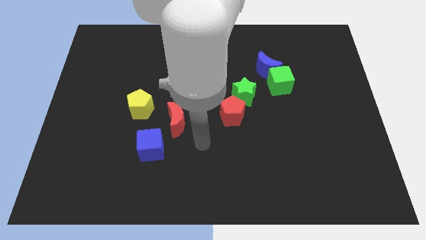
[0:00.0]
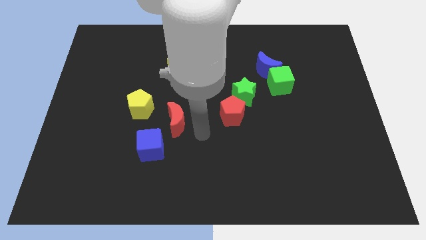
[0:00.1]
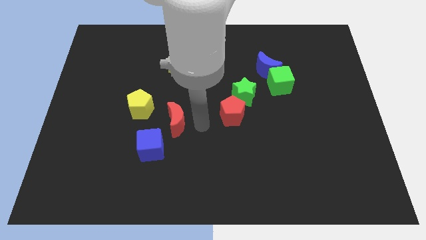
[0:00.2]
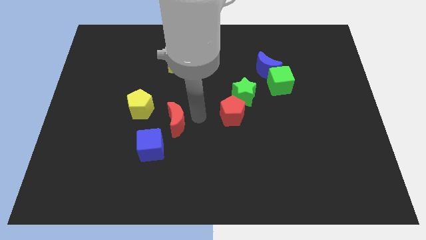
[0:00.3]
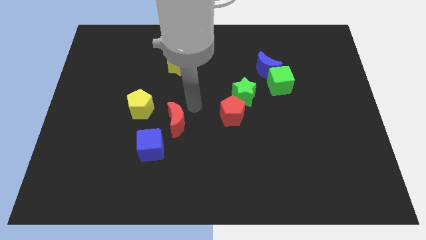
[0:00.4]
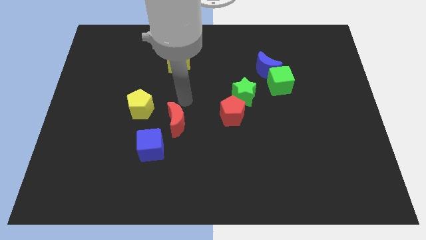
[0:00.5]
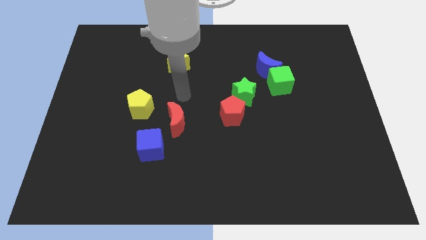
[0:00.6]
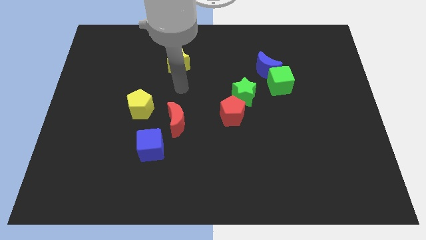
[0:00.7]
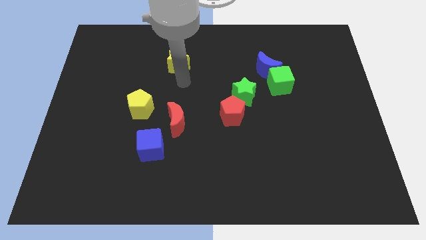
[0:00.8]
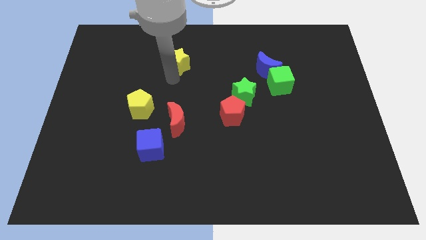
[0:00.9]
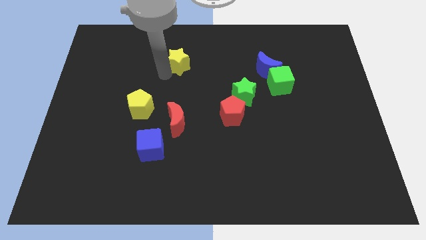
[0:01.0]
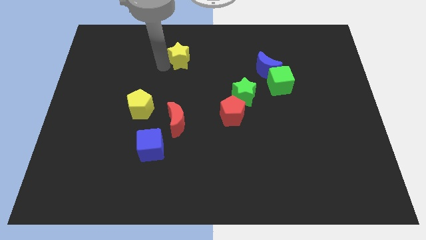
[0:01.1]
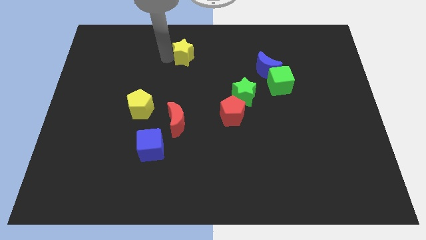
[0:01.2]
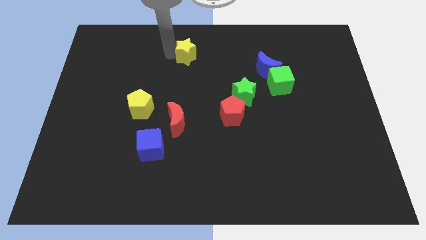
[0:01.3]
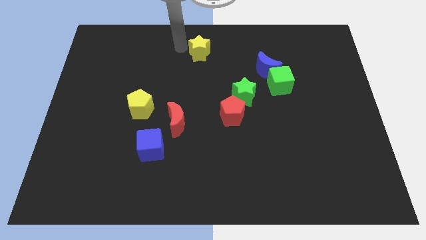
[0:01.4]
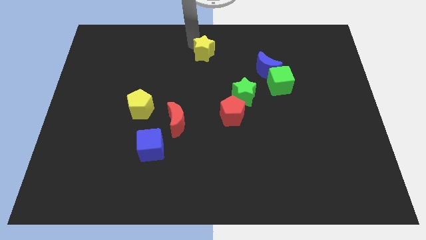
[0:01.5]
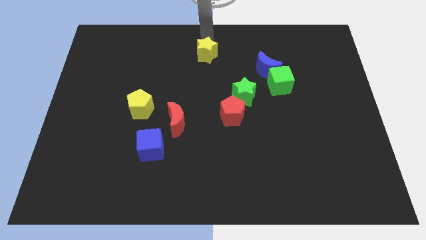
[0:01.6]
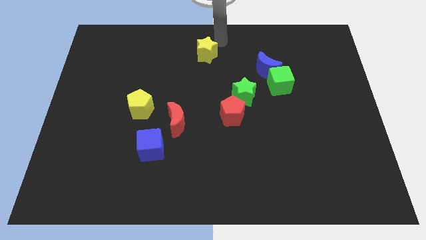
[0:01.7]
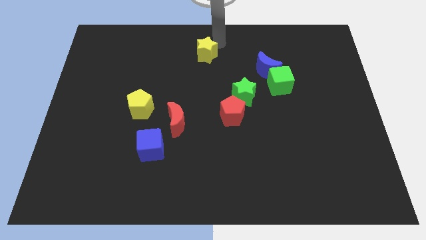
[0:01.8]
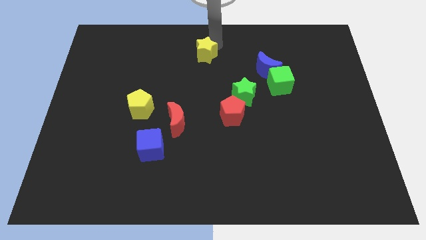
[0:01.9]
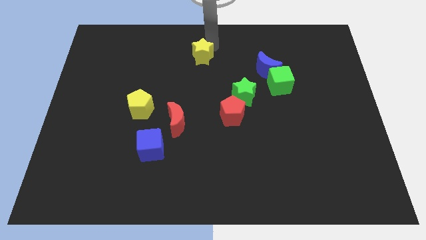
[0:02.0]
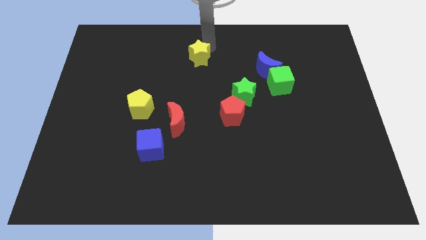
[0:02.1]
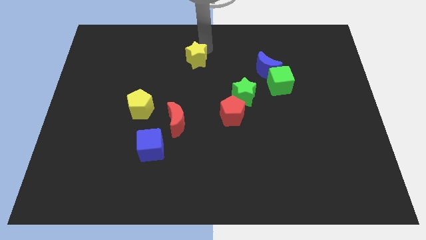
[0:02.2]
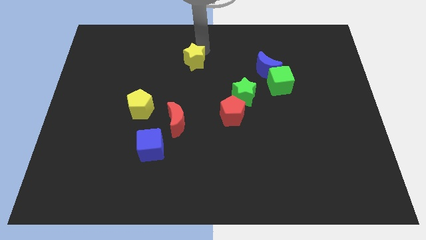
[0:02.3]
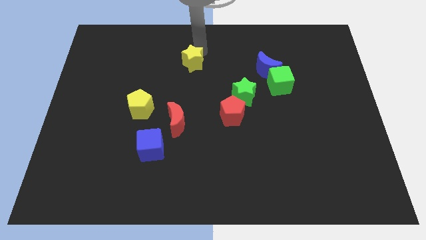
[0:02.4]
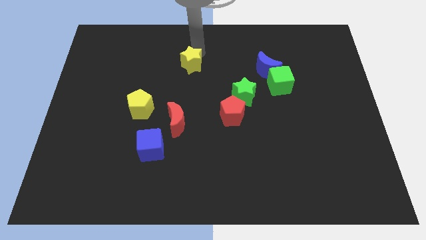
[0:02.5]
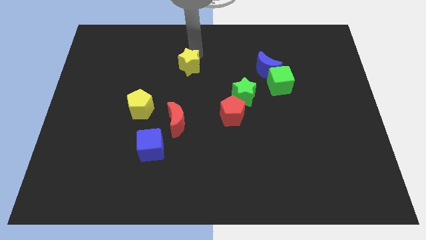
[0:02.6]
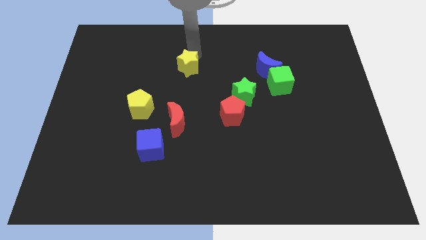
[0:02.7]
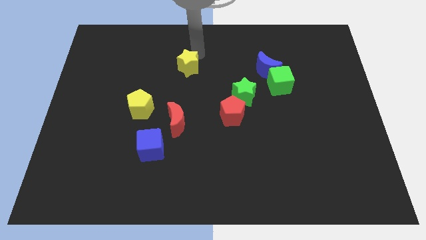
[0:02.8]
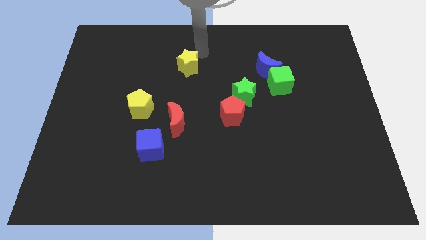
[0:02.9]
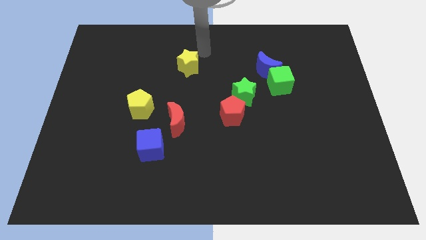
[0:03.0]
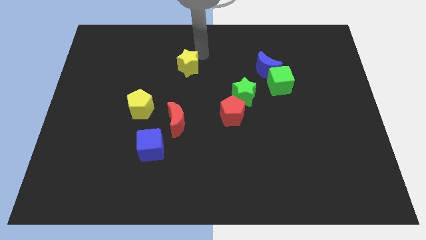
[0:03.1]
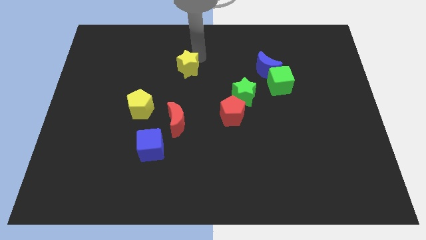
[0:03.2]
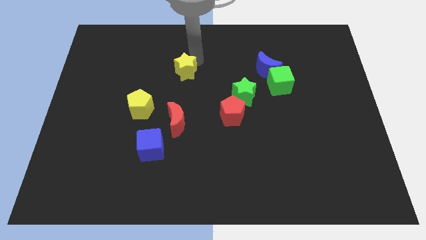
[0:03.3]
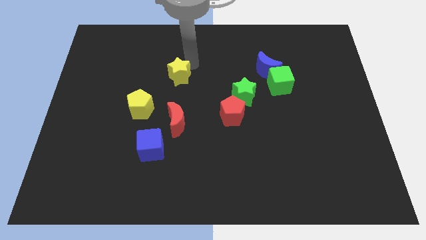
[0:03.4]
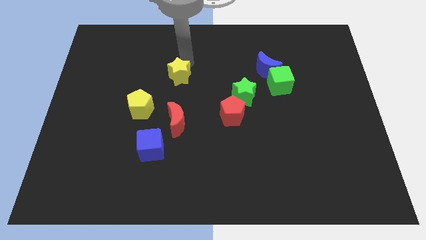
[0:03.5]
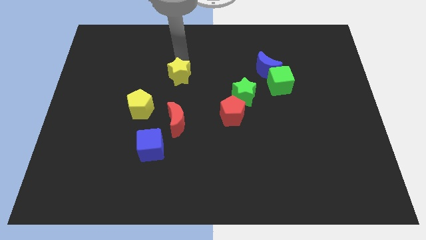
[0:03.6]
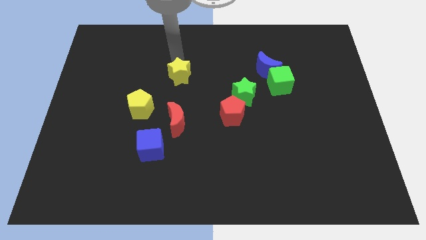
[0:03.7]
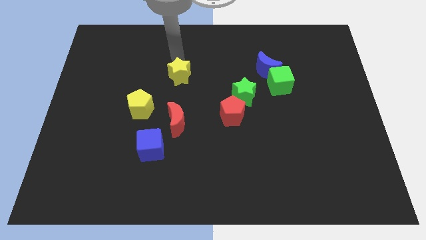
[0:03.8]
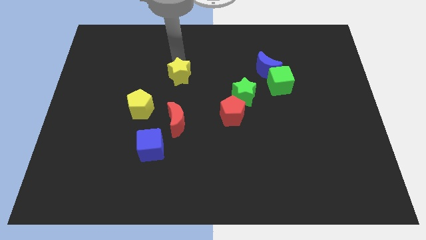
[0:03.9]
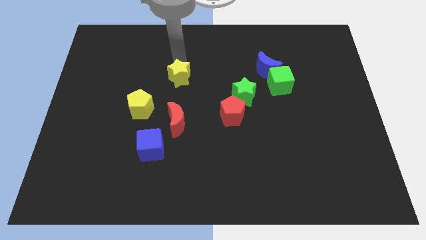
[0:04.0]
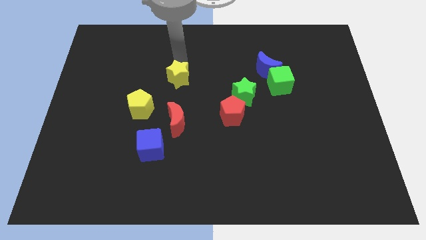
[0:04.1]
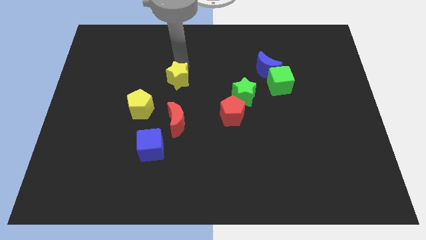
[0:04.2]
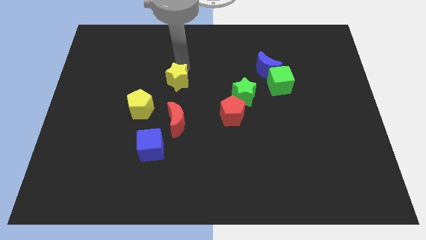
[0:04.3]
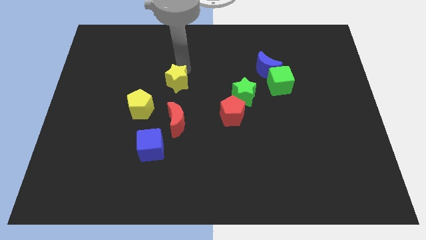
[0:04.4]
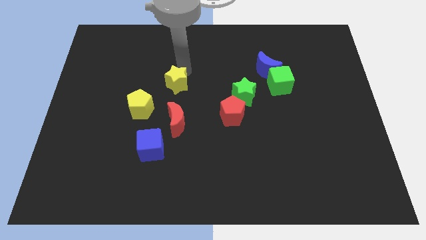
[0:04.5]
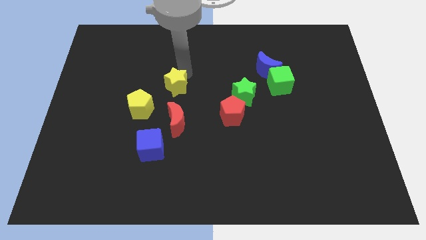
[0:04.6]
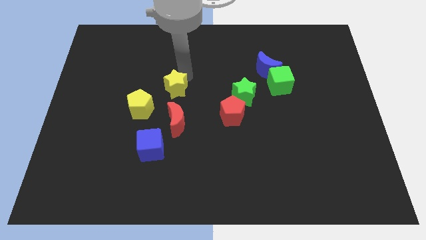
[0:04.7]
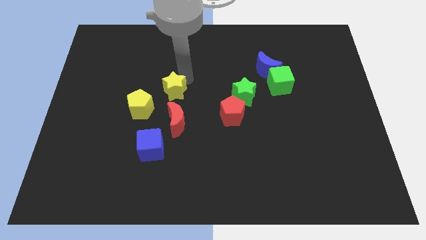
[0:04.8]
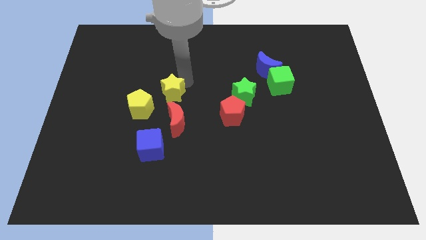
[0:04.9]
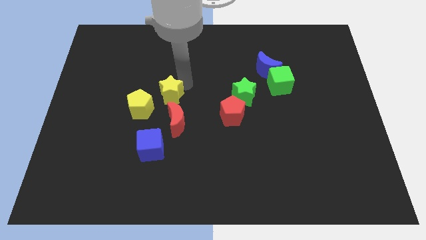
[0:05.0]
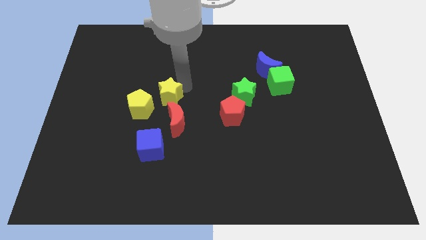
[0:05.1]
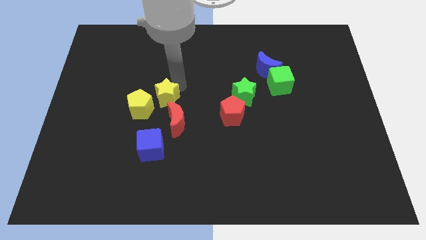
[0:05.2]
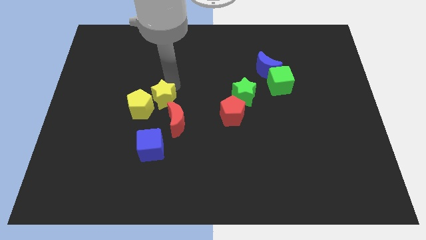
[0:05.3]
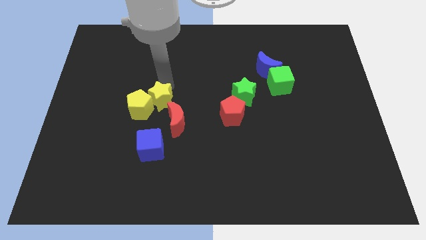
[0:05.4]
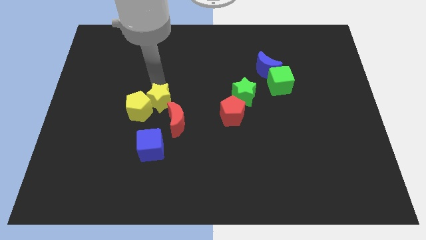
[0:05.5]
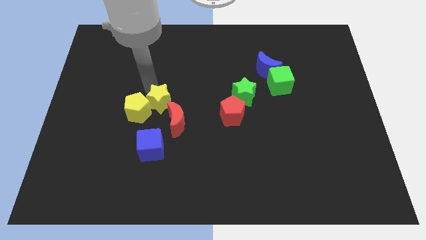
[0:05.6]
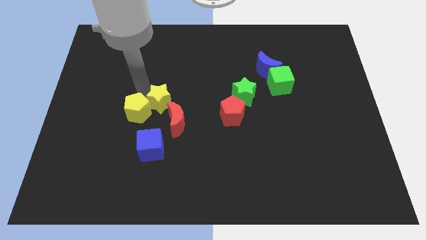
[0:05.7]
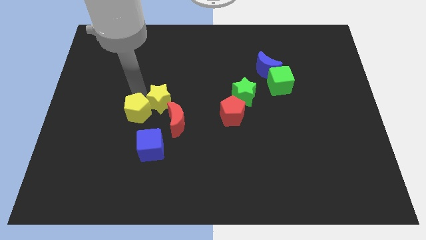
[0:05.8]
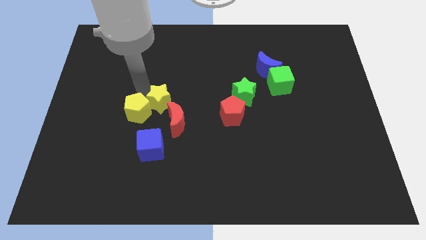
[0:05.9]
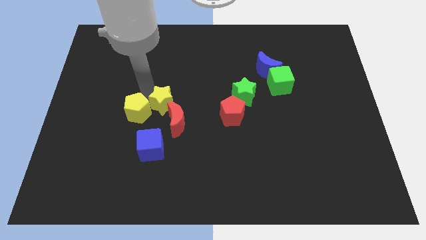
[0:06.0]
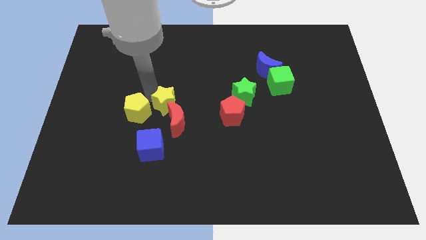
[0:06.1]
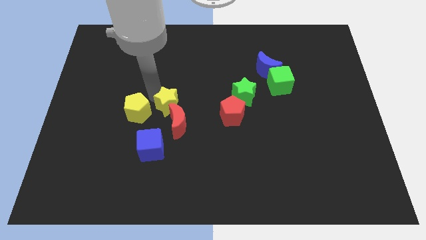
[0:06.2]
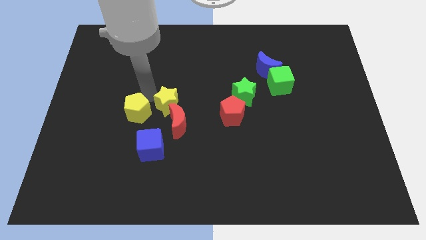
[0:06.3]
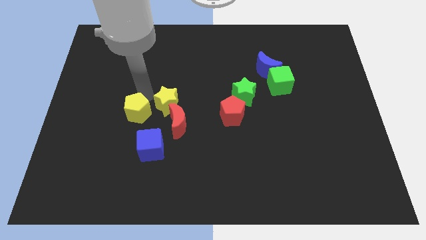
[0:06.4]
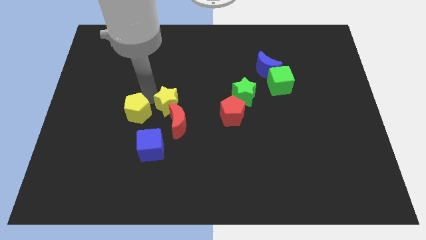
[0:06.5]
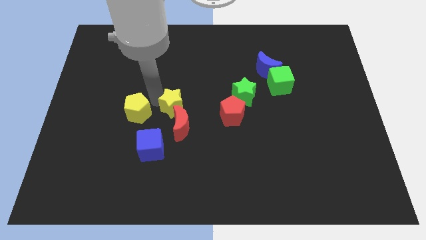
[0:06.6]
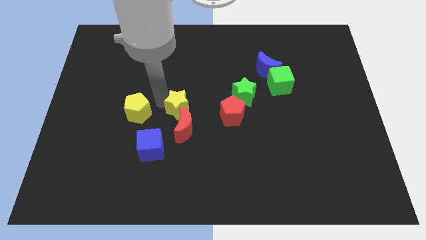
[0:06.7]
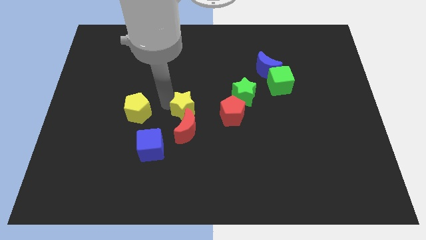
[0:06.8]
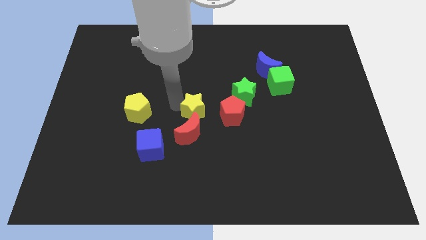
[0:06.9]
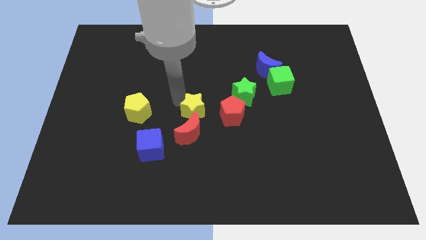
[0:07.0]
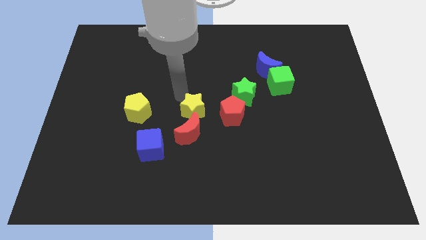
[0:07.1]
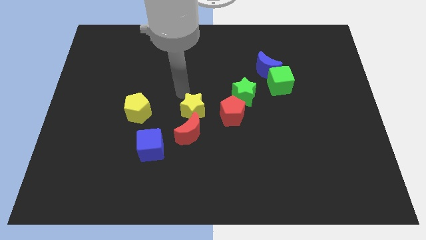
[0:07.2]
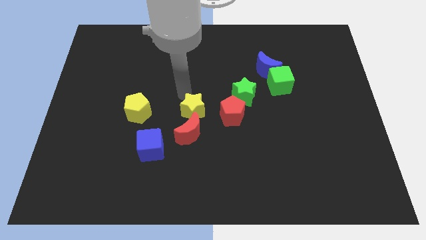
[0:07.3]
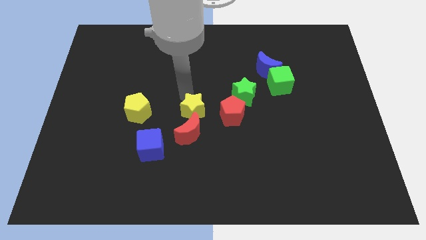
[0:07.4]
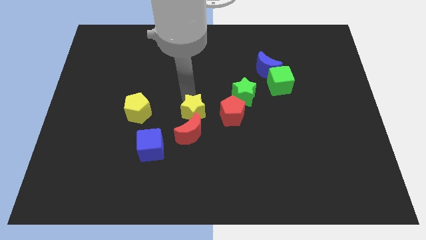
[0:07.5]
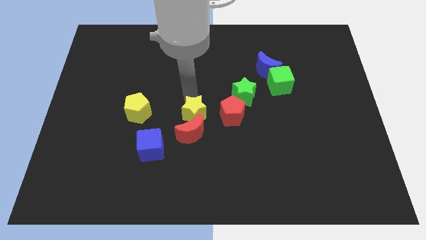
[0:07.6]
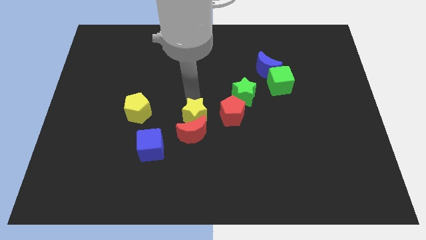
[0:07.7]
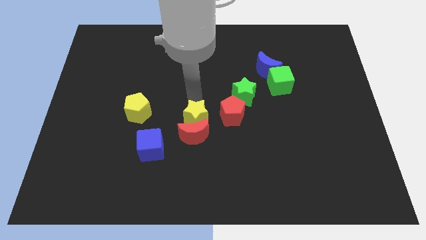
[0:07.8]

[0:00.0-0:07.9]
put the yellow star diagonally down and to the left of the red pentagon

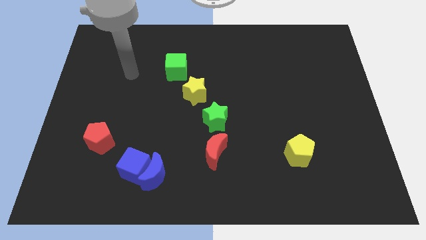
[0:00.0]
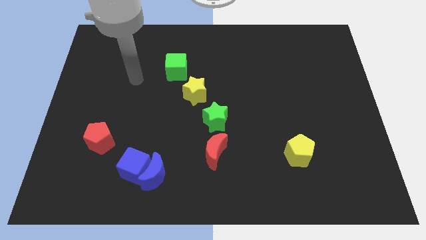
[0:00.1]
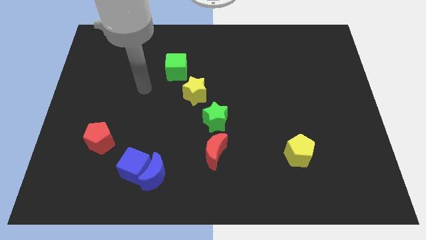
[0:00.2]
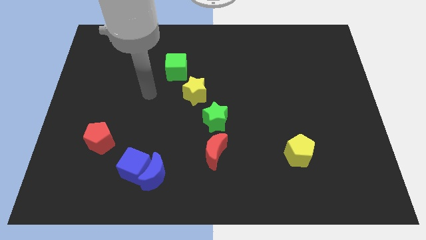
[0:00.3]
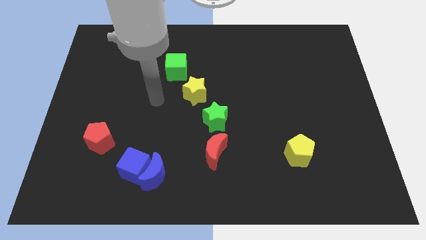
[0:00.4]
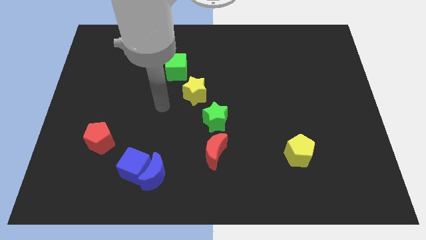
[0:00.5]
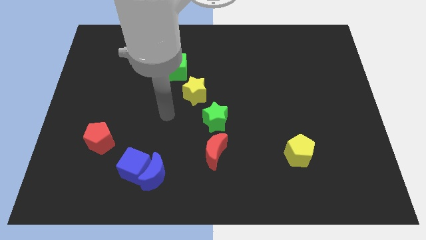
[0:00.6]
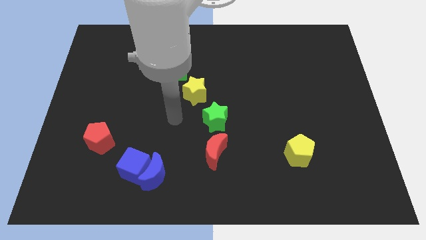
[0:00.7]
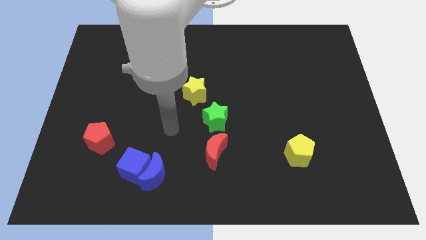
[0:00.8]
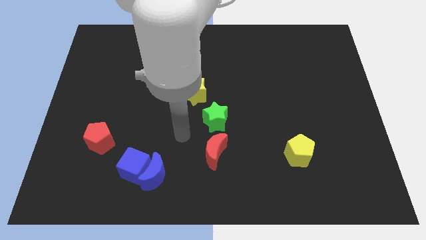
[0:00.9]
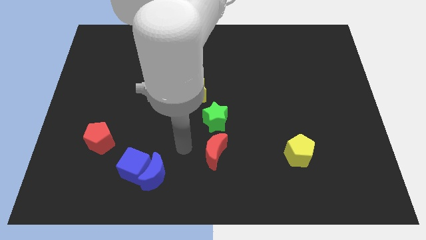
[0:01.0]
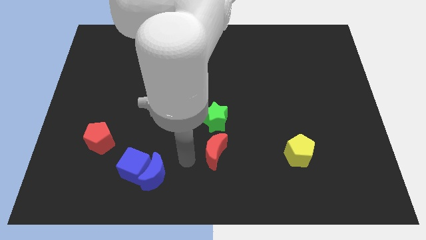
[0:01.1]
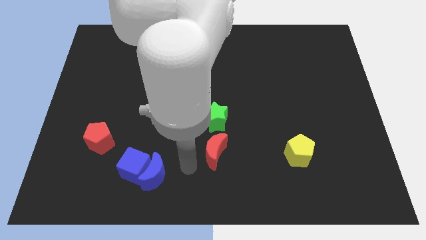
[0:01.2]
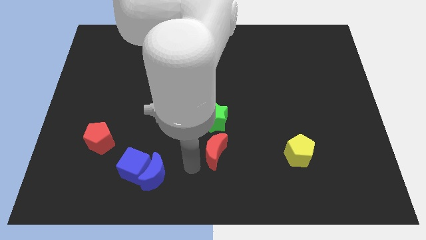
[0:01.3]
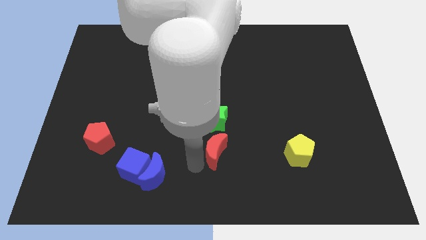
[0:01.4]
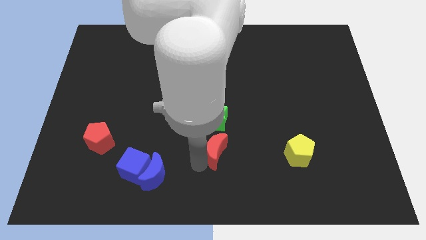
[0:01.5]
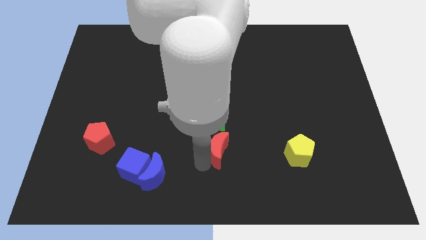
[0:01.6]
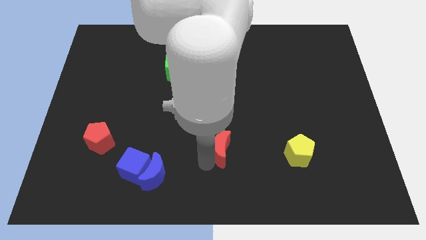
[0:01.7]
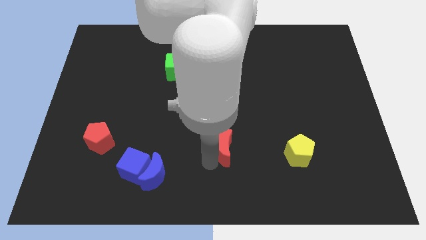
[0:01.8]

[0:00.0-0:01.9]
slide the red moon to the bottom right of the green star
